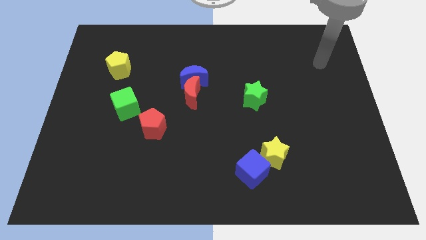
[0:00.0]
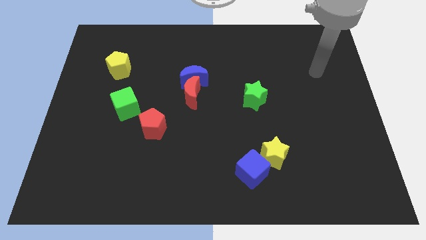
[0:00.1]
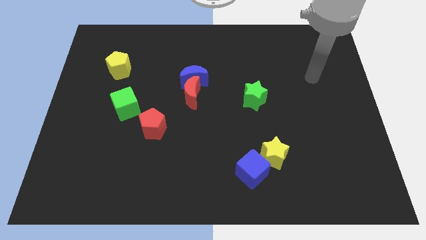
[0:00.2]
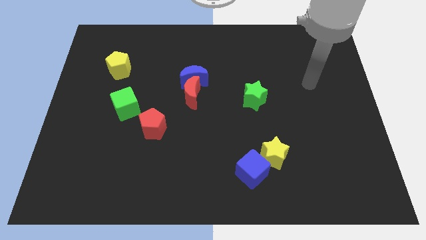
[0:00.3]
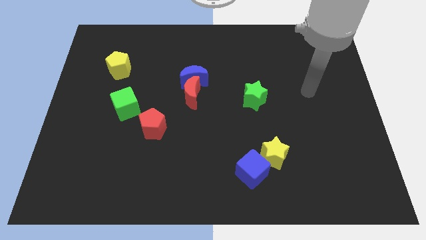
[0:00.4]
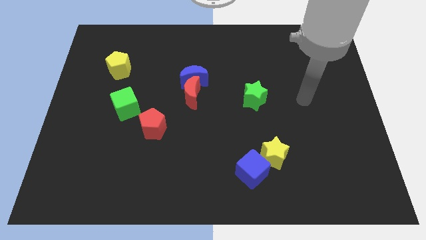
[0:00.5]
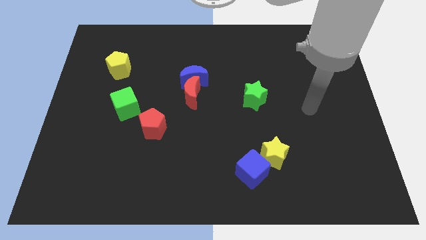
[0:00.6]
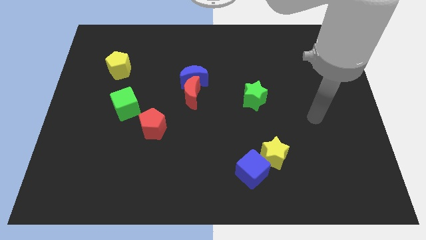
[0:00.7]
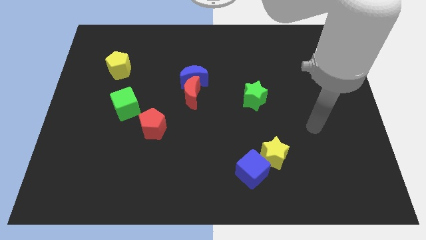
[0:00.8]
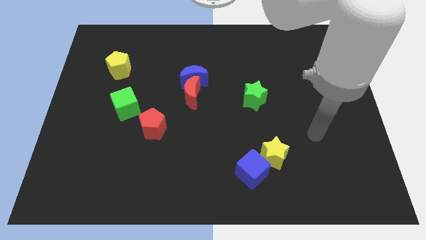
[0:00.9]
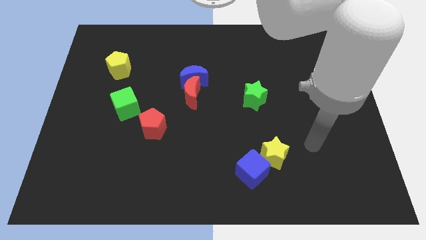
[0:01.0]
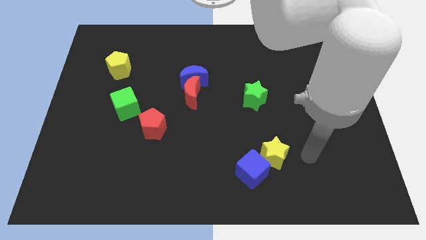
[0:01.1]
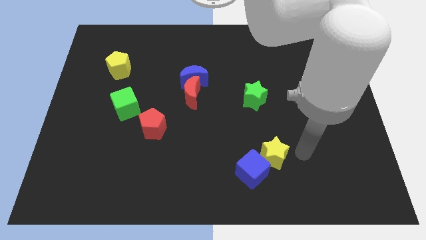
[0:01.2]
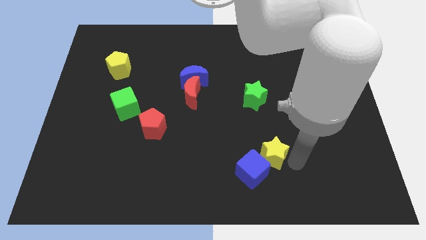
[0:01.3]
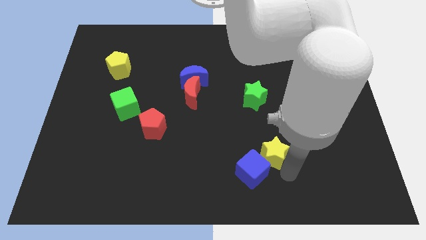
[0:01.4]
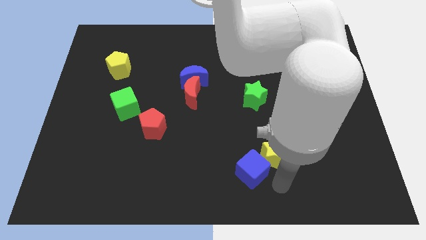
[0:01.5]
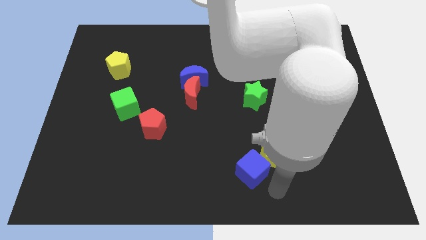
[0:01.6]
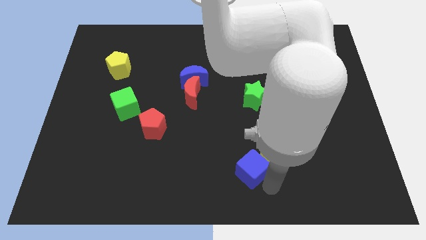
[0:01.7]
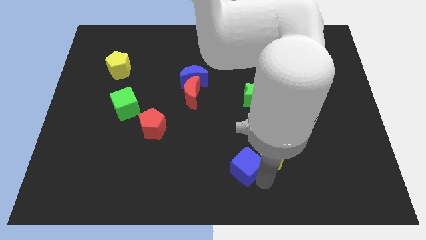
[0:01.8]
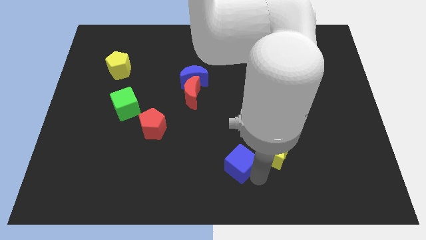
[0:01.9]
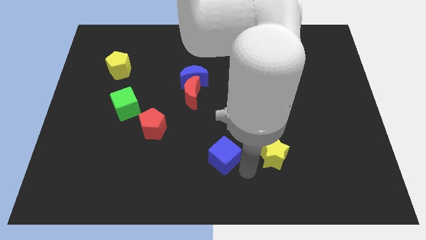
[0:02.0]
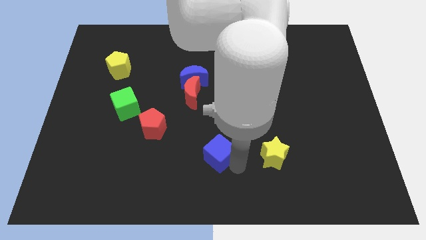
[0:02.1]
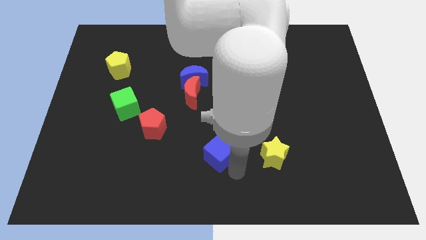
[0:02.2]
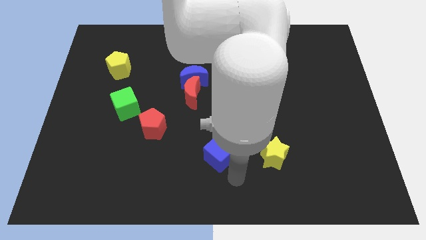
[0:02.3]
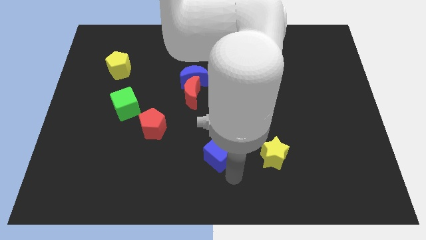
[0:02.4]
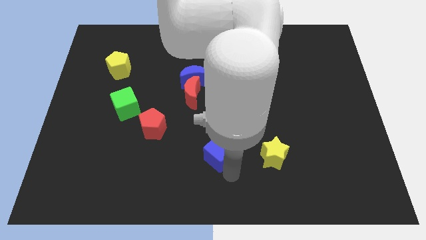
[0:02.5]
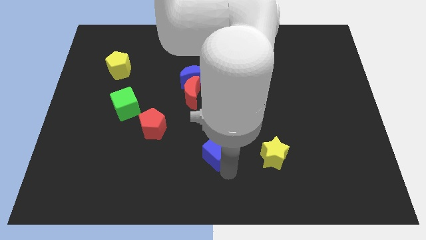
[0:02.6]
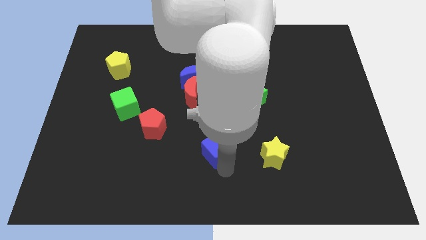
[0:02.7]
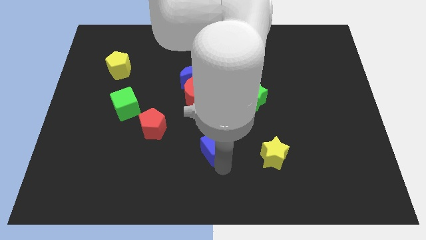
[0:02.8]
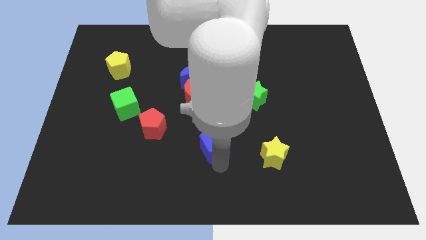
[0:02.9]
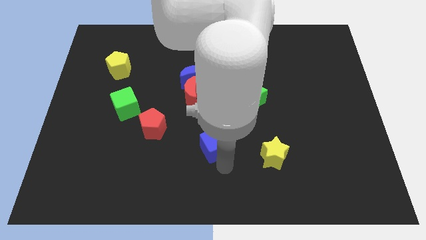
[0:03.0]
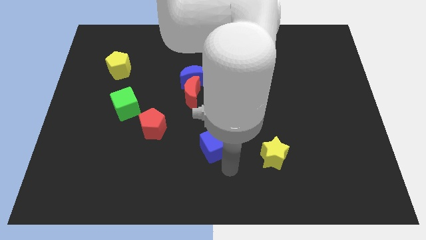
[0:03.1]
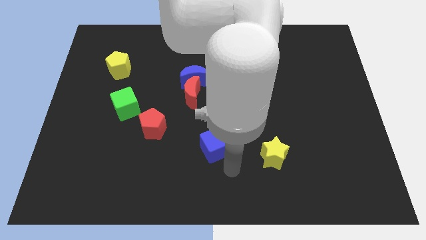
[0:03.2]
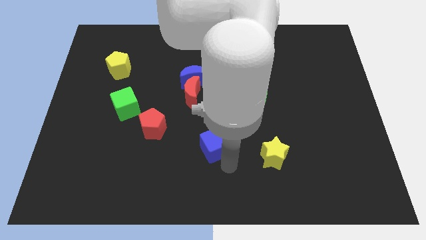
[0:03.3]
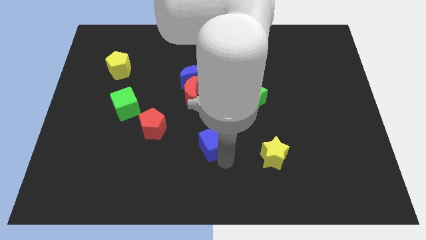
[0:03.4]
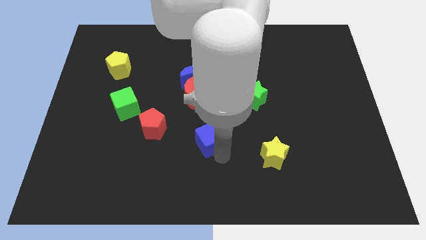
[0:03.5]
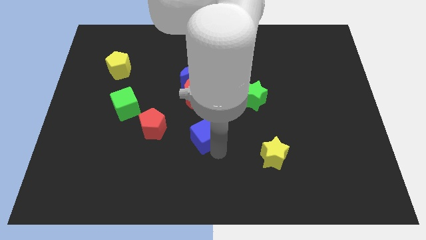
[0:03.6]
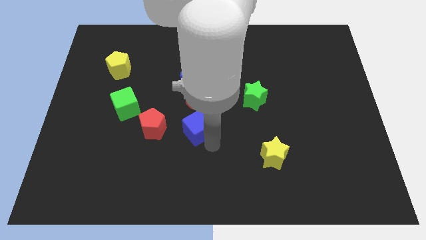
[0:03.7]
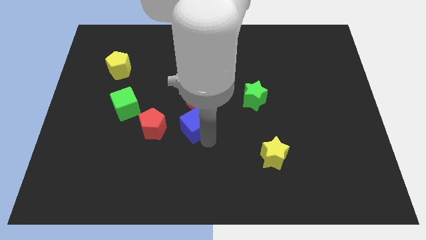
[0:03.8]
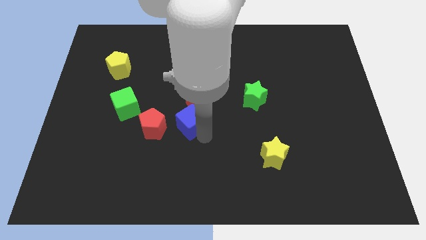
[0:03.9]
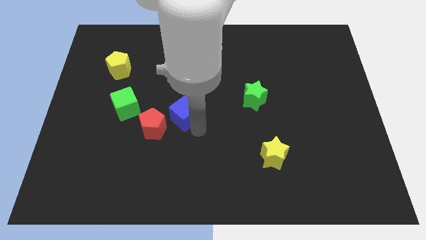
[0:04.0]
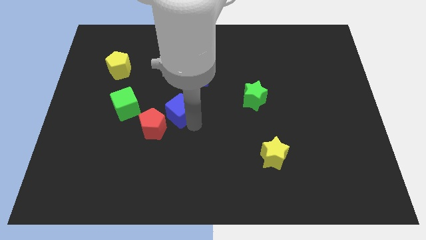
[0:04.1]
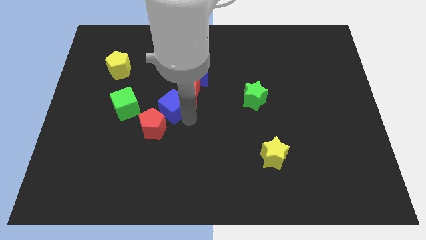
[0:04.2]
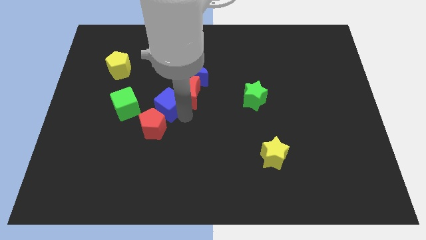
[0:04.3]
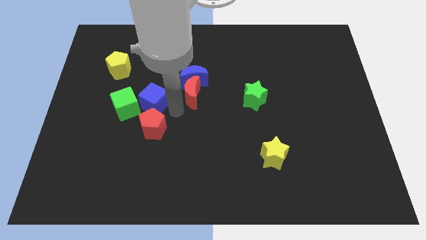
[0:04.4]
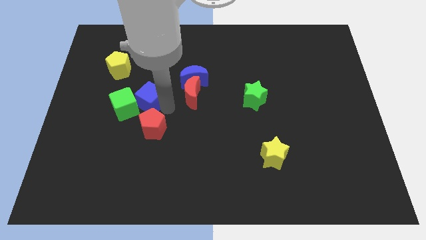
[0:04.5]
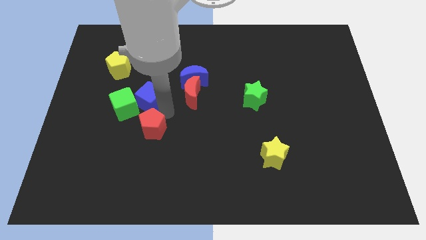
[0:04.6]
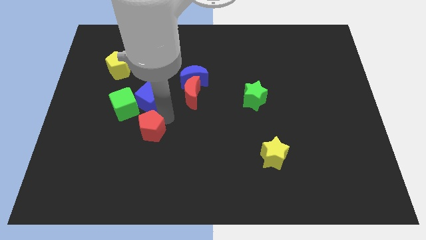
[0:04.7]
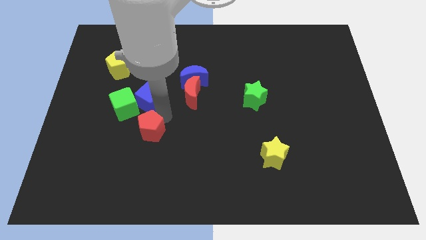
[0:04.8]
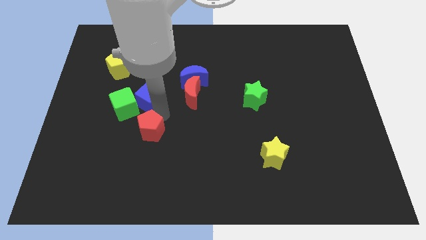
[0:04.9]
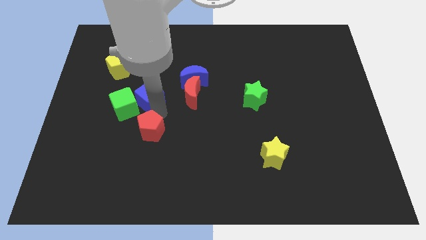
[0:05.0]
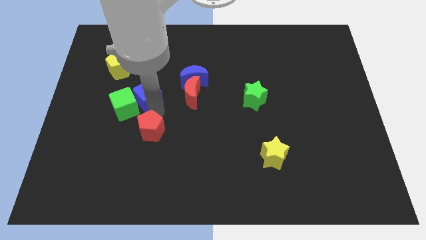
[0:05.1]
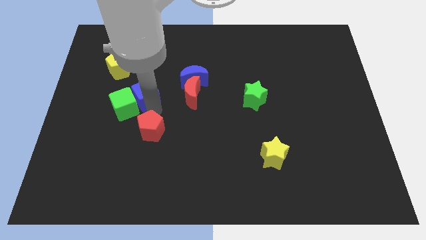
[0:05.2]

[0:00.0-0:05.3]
slide the blue cube diagonally down and to the right of the yellow pentagon

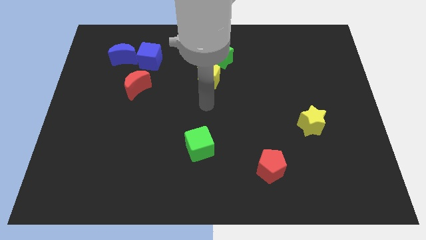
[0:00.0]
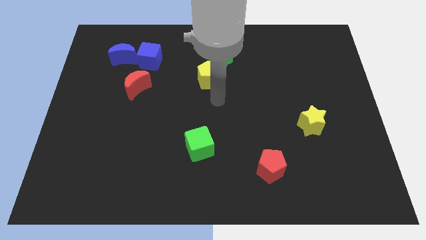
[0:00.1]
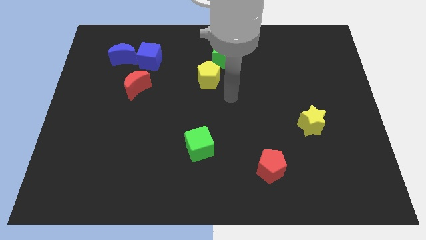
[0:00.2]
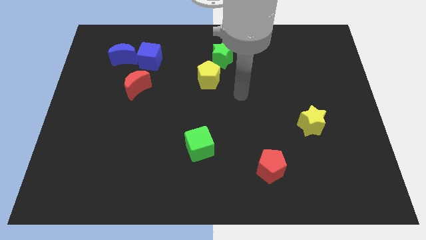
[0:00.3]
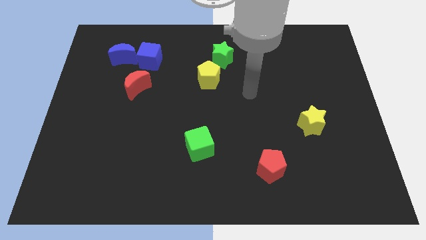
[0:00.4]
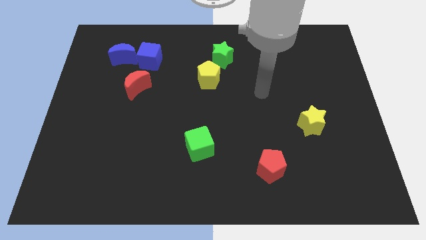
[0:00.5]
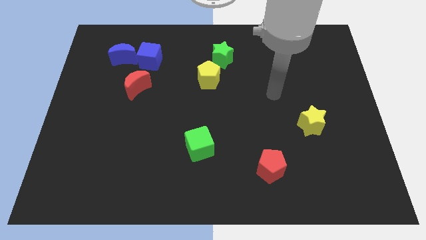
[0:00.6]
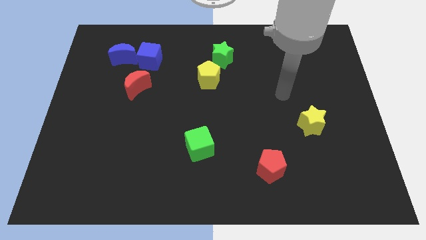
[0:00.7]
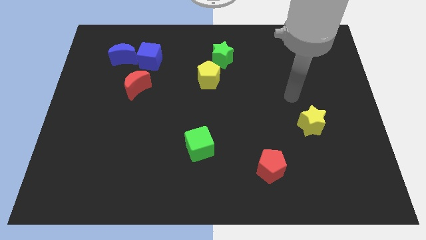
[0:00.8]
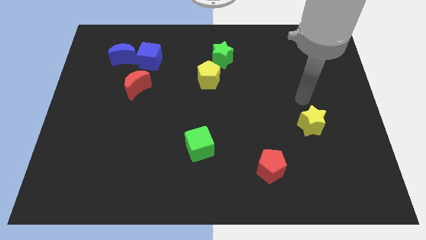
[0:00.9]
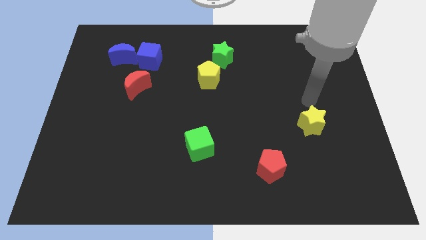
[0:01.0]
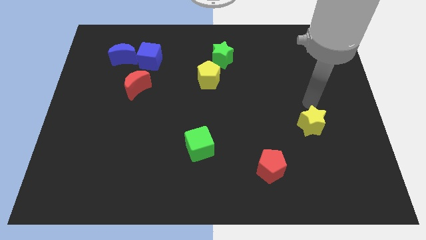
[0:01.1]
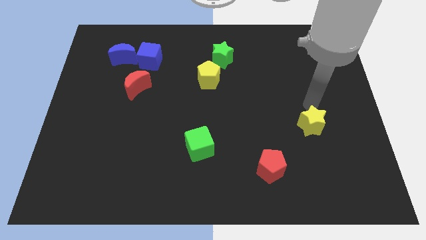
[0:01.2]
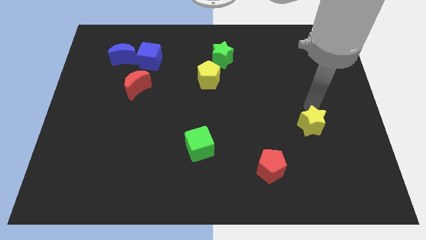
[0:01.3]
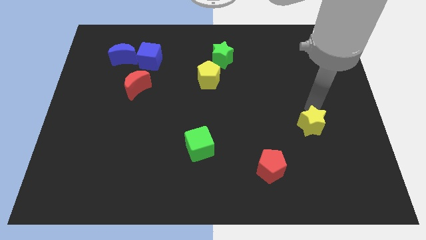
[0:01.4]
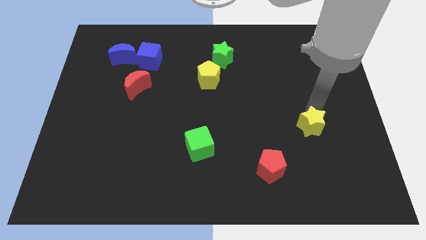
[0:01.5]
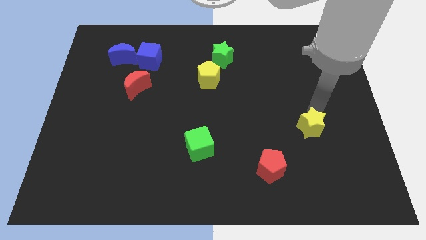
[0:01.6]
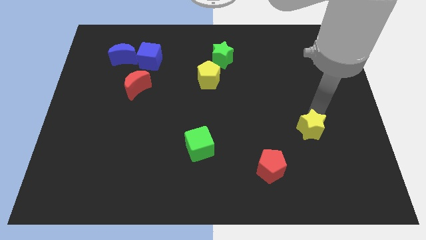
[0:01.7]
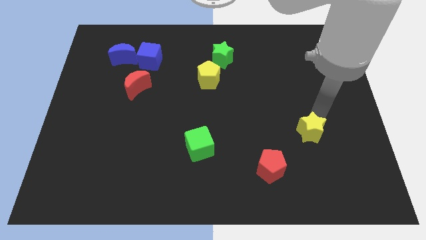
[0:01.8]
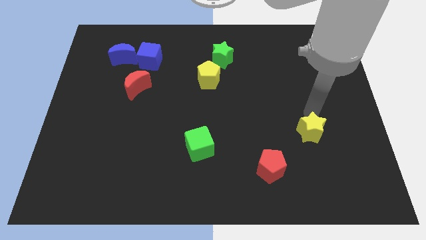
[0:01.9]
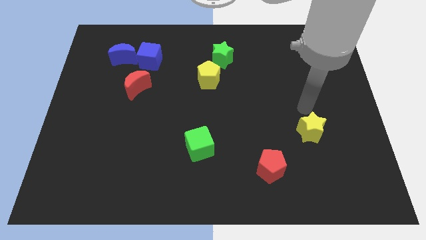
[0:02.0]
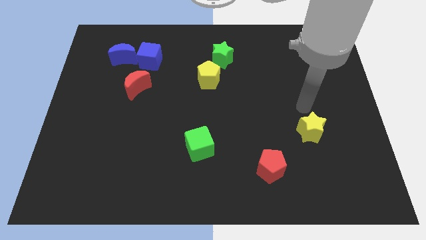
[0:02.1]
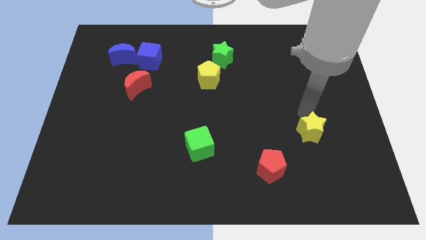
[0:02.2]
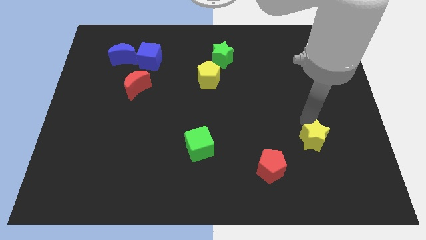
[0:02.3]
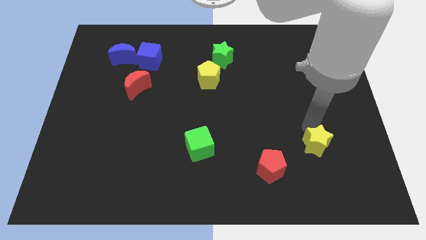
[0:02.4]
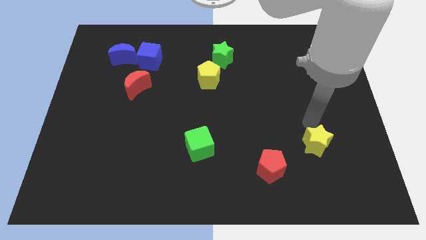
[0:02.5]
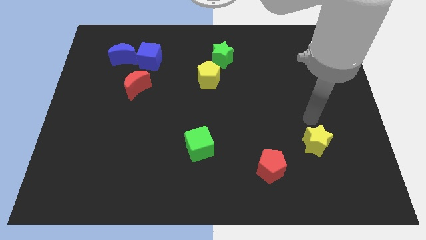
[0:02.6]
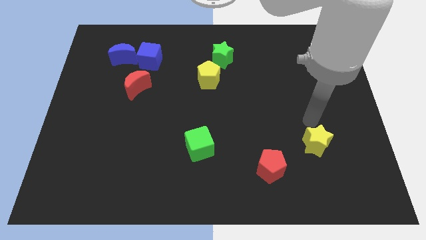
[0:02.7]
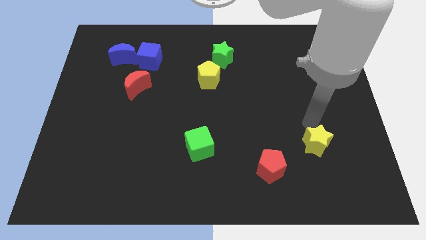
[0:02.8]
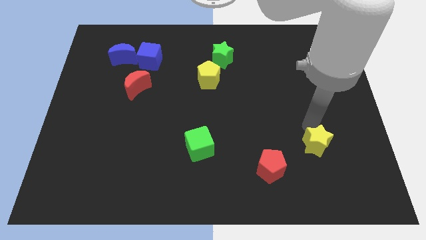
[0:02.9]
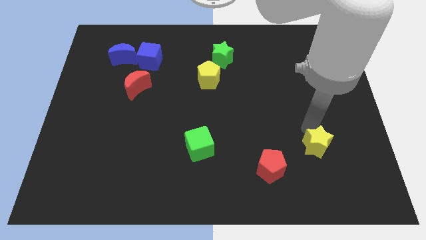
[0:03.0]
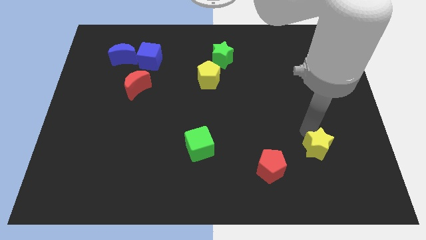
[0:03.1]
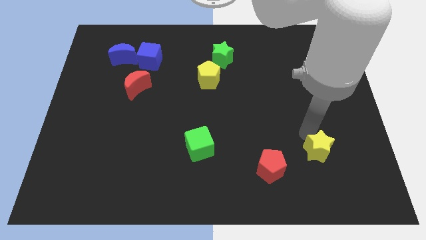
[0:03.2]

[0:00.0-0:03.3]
put the yellow star to the right of the red pentagon
